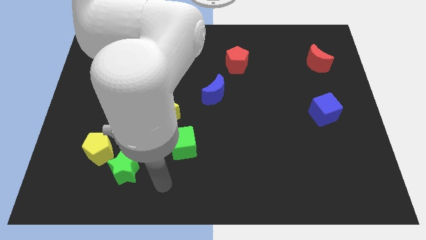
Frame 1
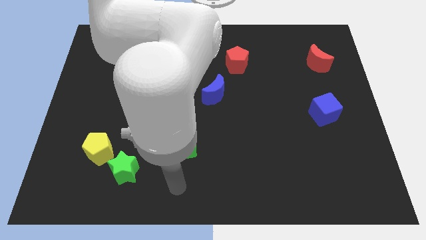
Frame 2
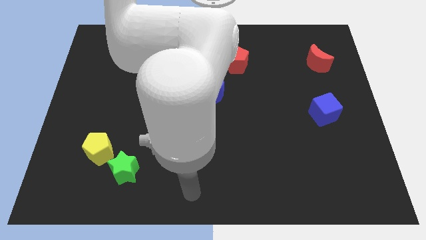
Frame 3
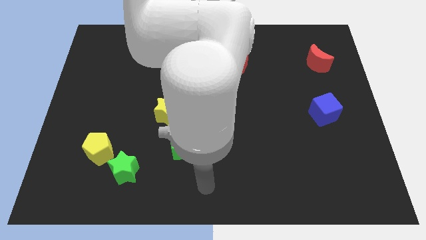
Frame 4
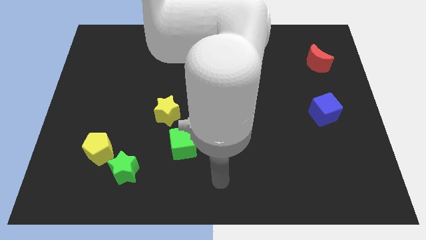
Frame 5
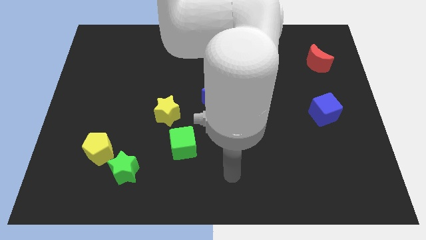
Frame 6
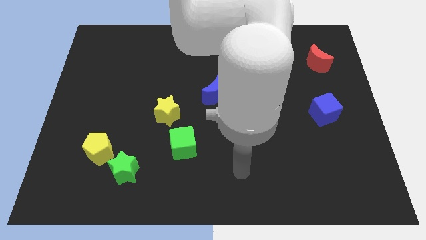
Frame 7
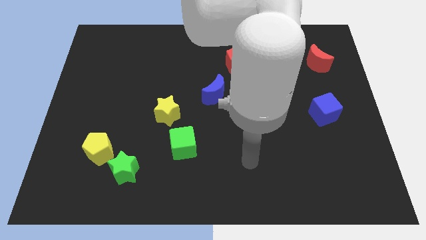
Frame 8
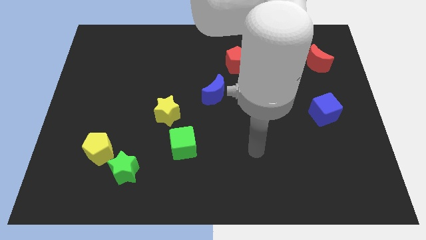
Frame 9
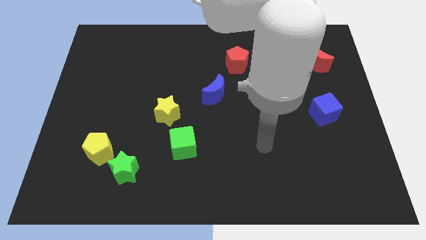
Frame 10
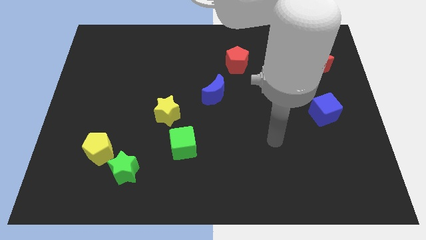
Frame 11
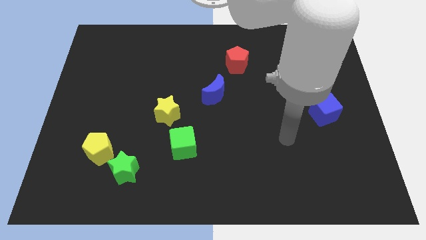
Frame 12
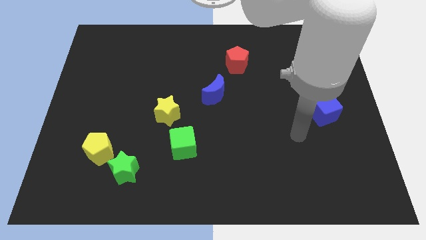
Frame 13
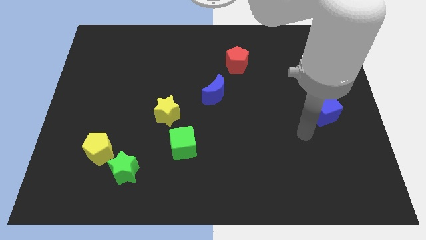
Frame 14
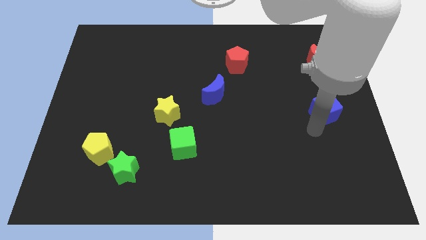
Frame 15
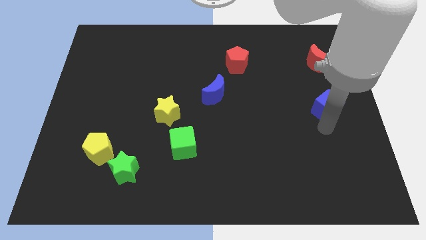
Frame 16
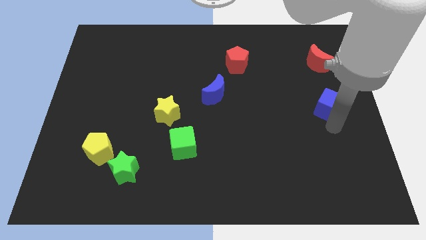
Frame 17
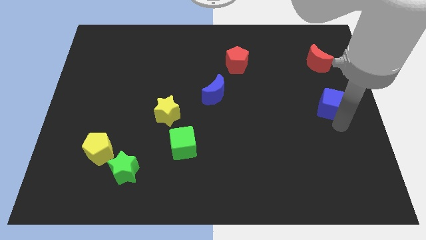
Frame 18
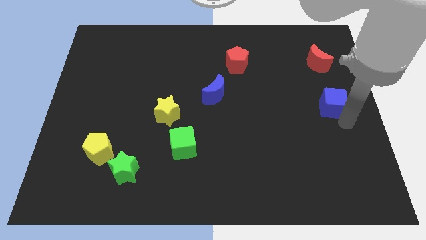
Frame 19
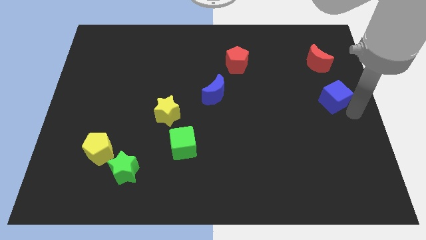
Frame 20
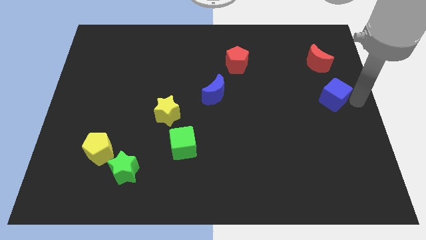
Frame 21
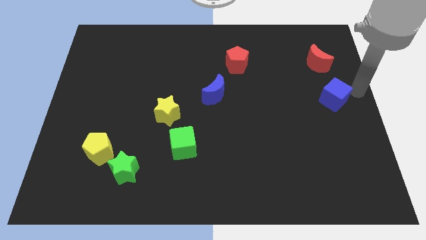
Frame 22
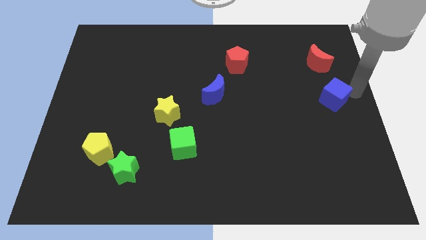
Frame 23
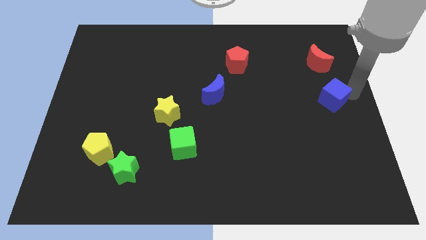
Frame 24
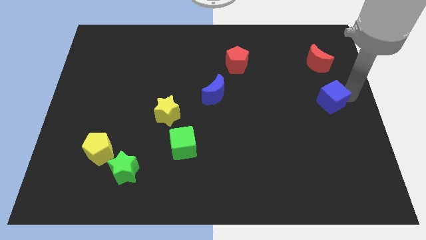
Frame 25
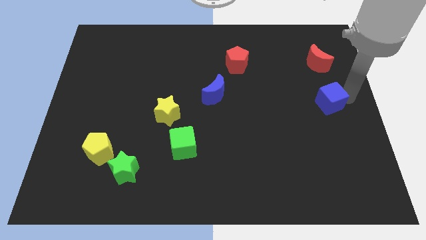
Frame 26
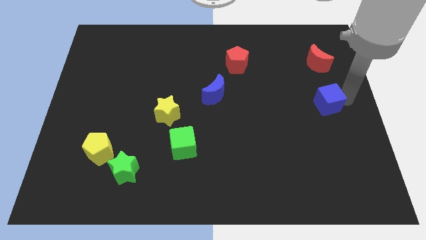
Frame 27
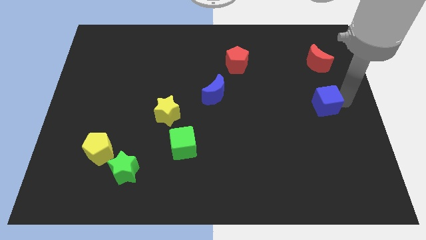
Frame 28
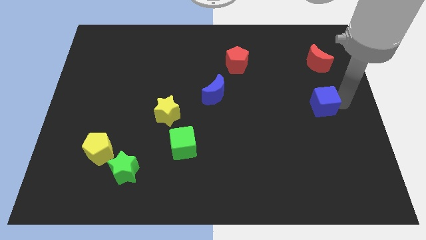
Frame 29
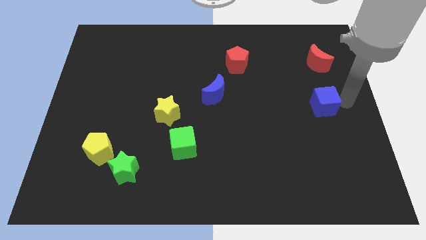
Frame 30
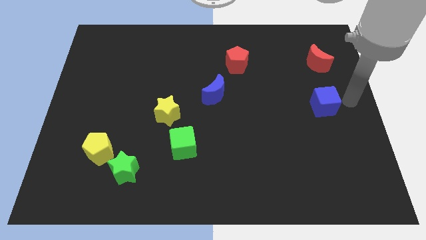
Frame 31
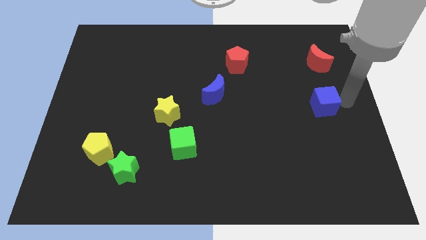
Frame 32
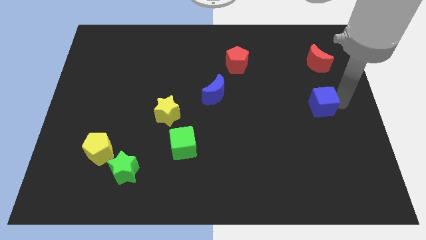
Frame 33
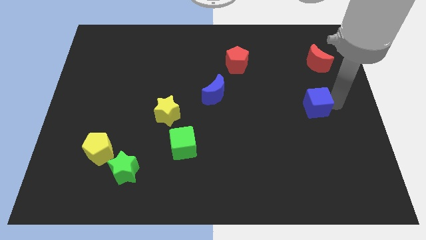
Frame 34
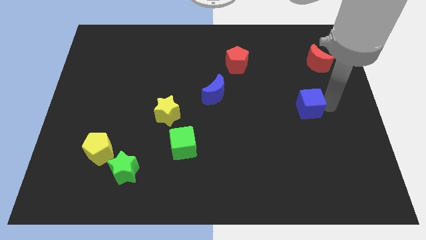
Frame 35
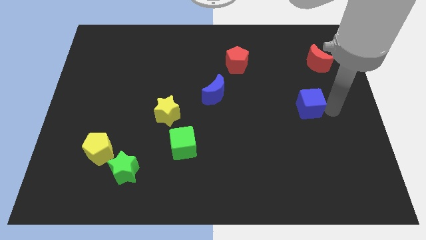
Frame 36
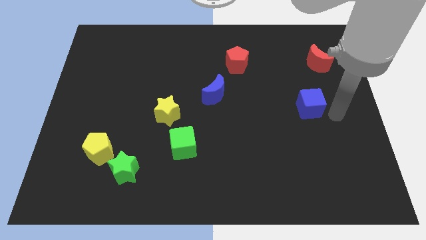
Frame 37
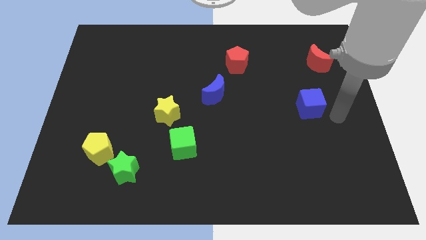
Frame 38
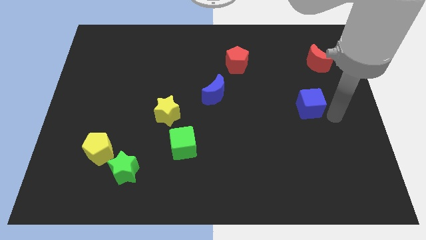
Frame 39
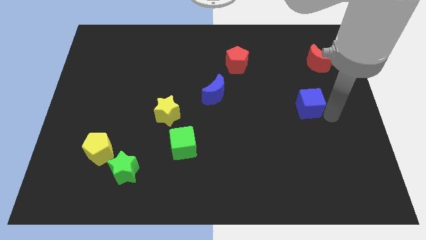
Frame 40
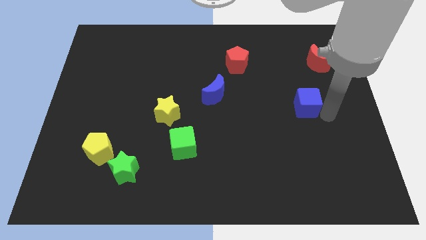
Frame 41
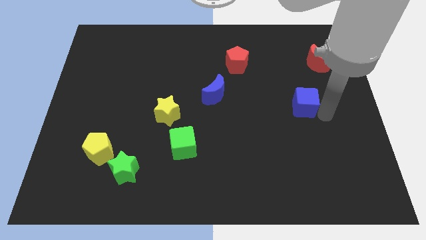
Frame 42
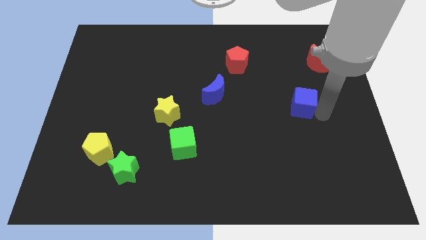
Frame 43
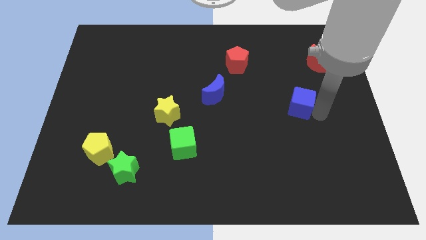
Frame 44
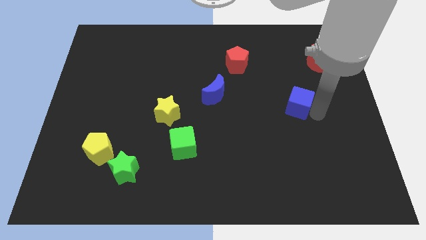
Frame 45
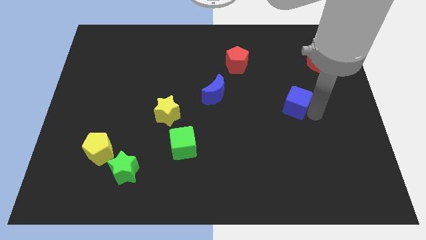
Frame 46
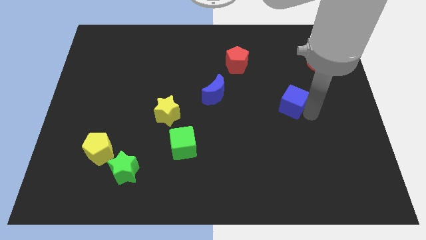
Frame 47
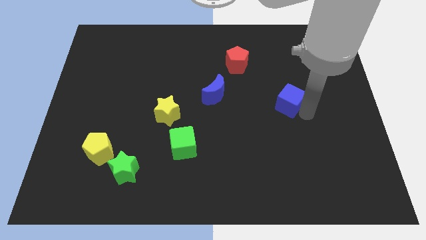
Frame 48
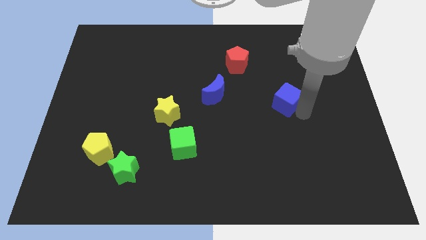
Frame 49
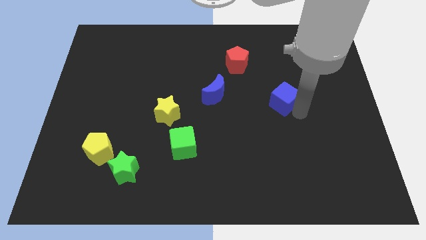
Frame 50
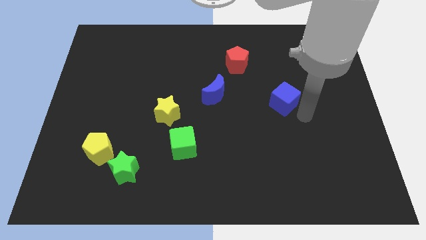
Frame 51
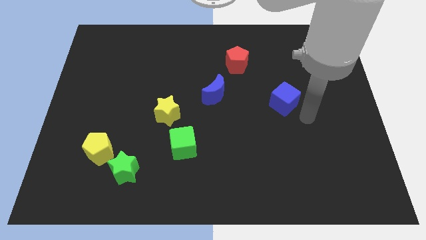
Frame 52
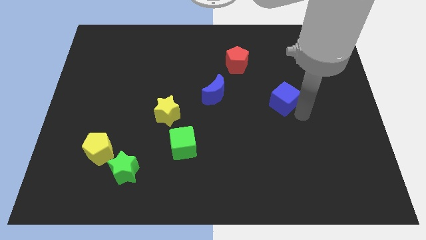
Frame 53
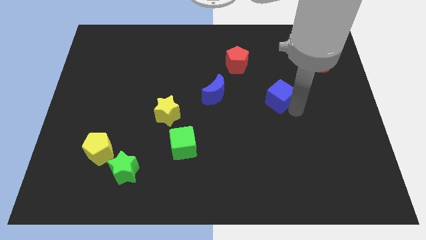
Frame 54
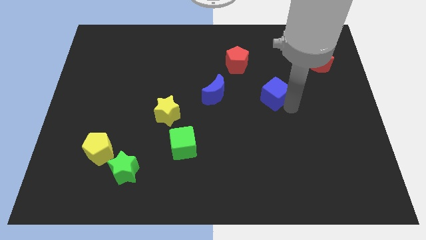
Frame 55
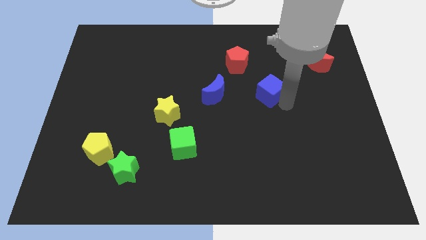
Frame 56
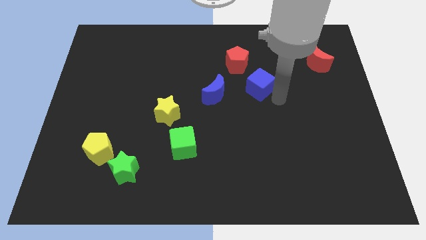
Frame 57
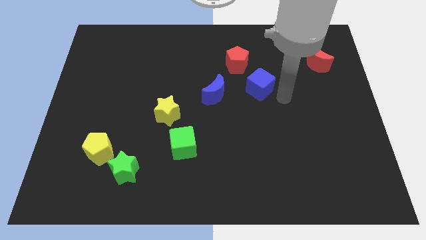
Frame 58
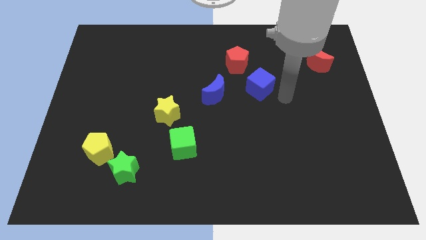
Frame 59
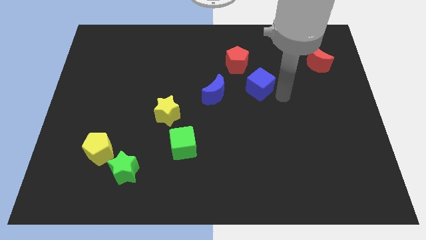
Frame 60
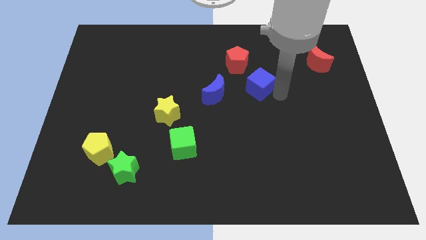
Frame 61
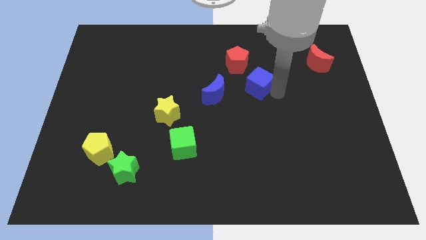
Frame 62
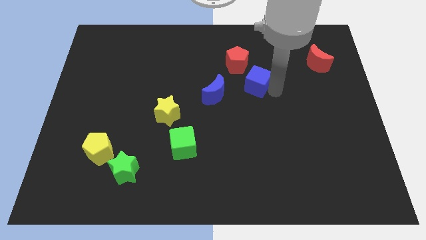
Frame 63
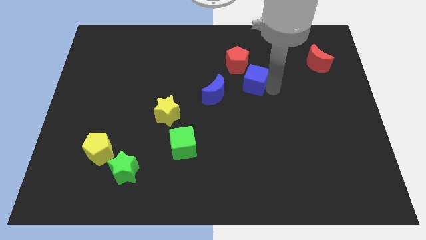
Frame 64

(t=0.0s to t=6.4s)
slide the blue cube to the top right of the blue moon

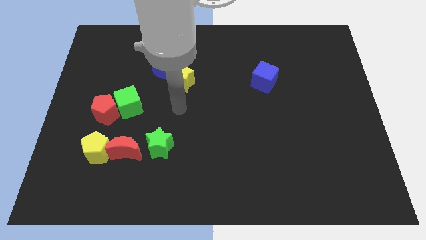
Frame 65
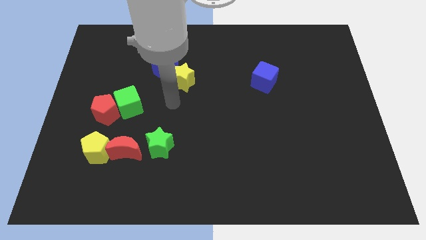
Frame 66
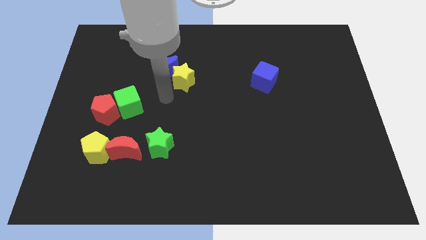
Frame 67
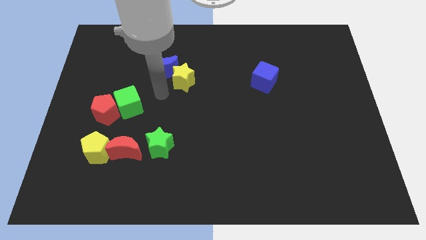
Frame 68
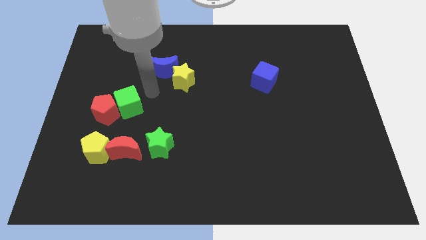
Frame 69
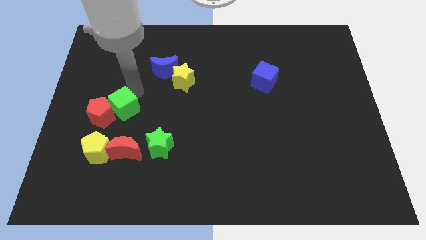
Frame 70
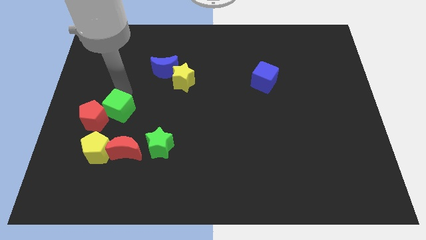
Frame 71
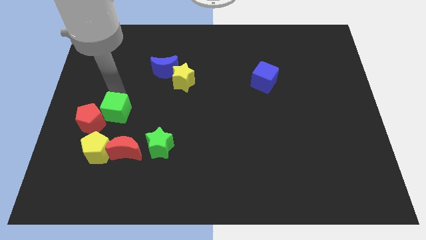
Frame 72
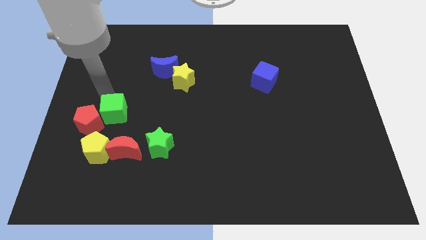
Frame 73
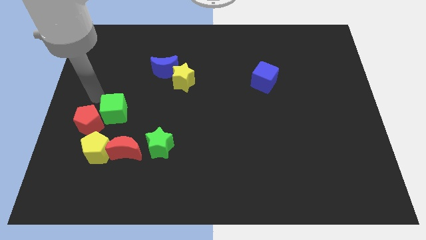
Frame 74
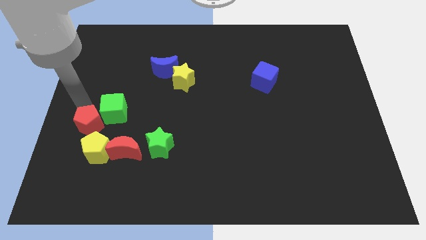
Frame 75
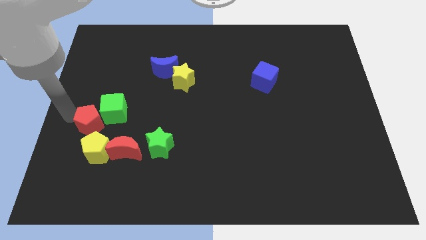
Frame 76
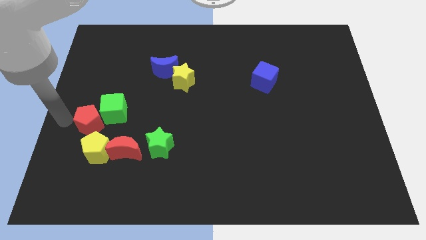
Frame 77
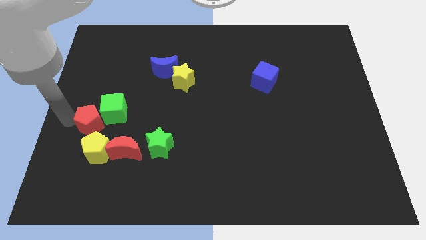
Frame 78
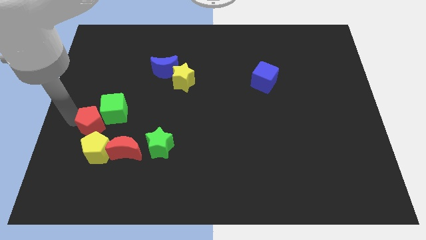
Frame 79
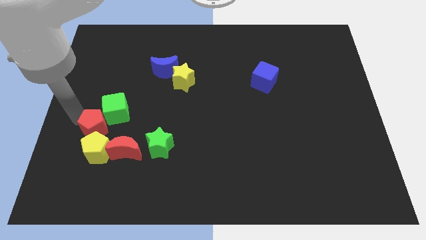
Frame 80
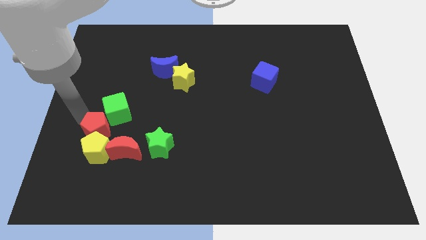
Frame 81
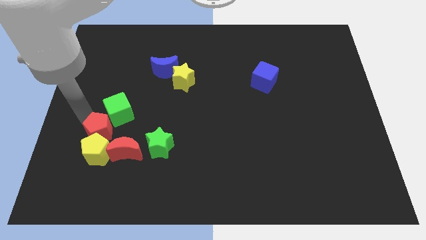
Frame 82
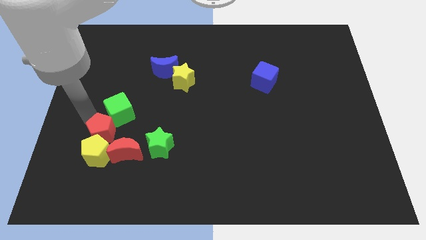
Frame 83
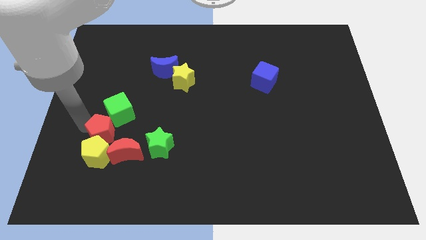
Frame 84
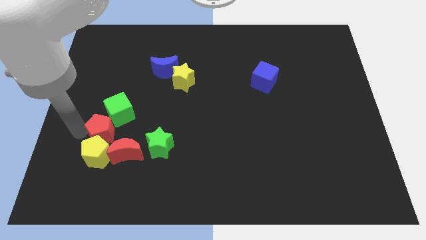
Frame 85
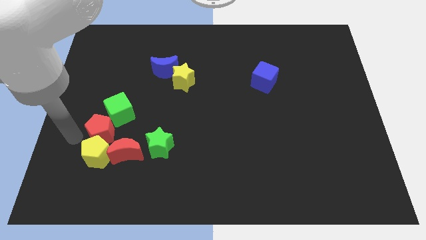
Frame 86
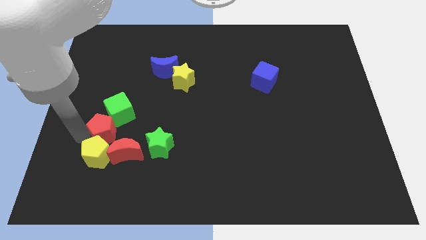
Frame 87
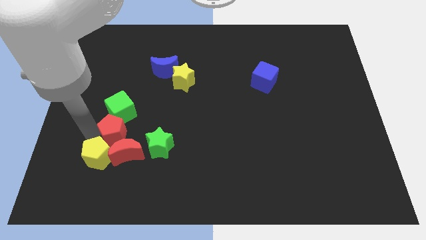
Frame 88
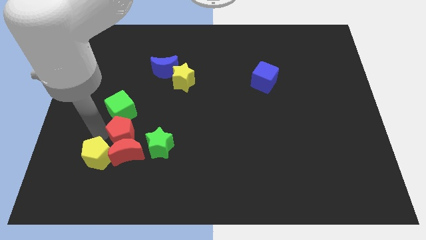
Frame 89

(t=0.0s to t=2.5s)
push the red pentagon to the top left side of the green star
